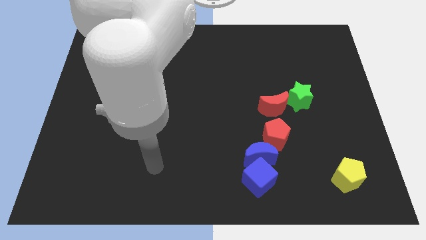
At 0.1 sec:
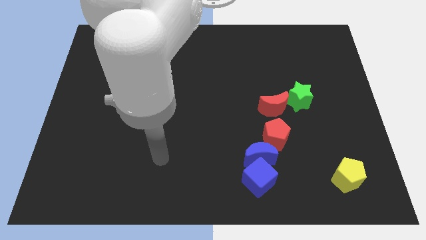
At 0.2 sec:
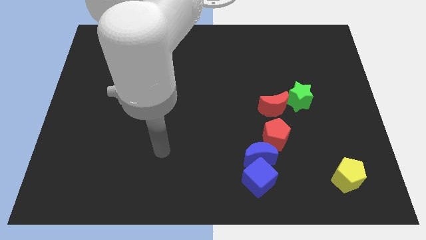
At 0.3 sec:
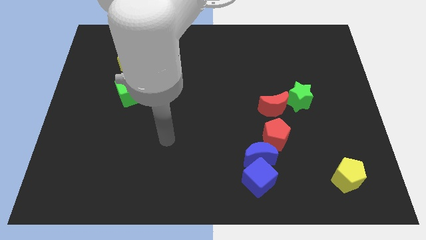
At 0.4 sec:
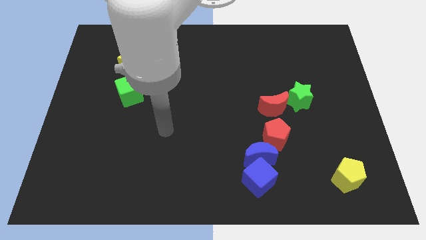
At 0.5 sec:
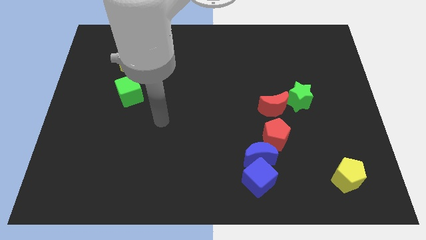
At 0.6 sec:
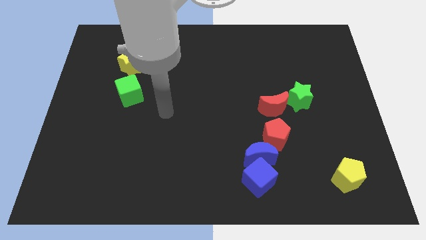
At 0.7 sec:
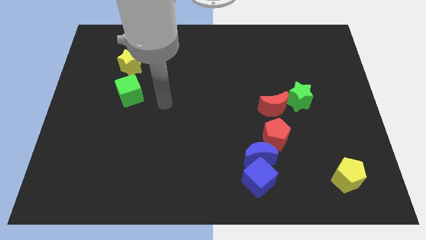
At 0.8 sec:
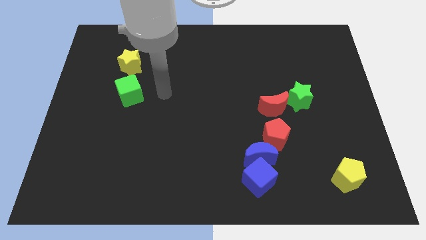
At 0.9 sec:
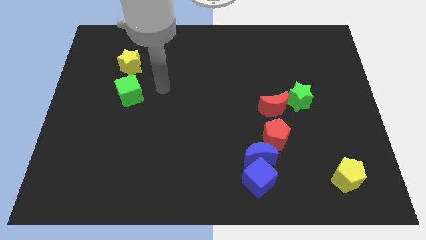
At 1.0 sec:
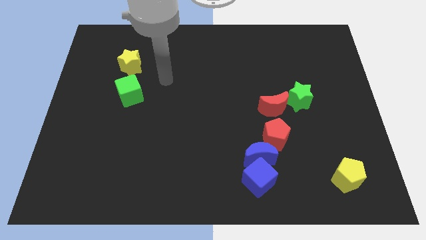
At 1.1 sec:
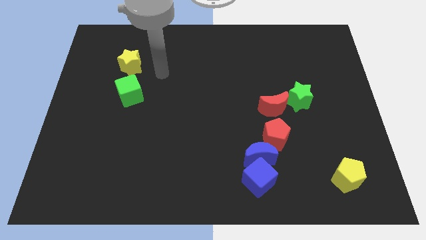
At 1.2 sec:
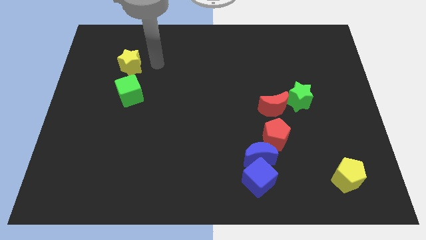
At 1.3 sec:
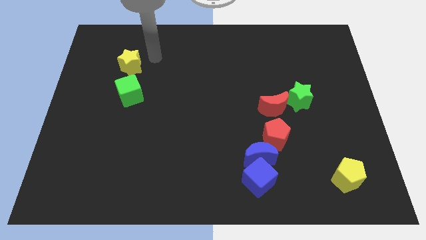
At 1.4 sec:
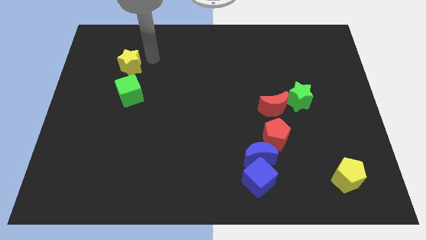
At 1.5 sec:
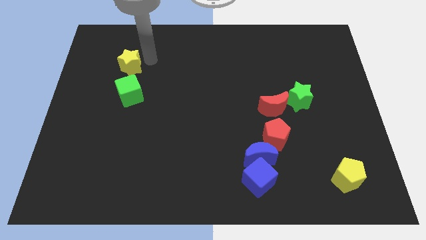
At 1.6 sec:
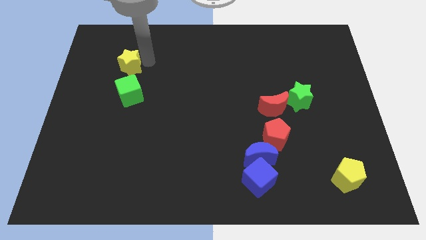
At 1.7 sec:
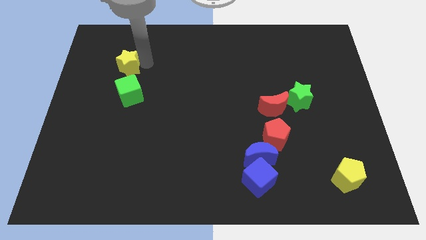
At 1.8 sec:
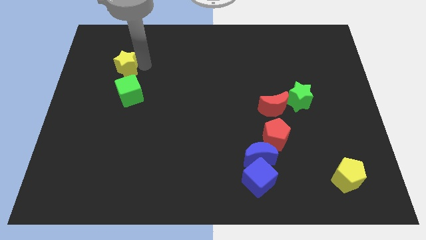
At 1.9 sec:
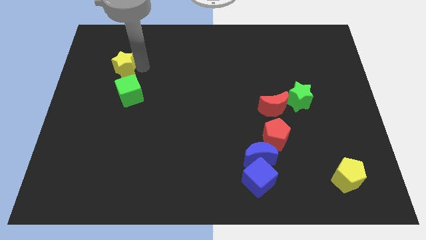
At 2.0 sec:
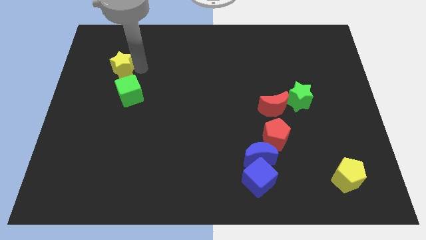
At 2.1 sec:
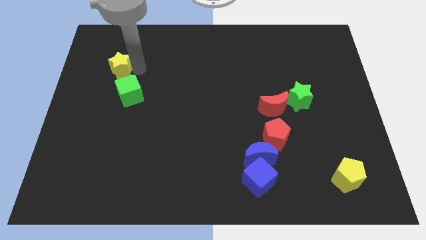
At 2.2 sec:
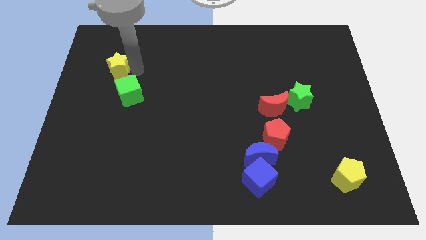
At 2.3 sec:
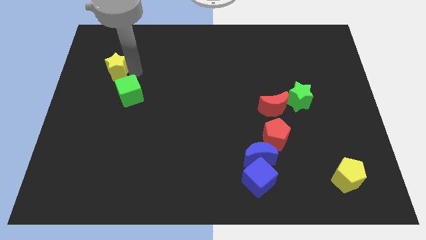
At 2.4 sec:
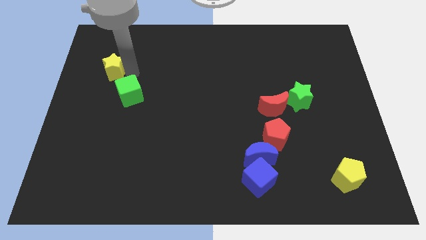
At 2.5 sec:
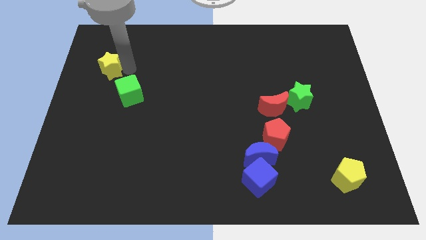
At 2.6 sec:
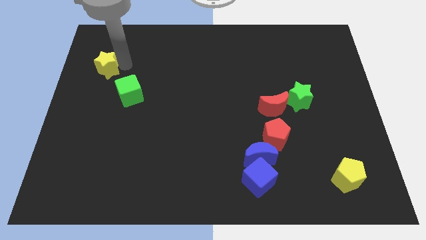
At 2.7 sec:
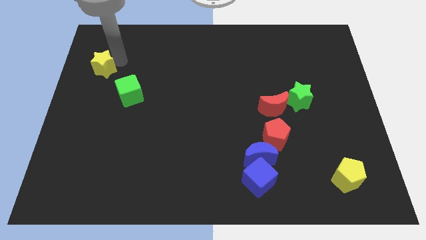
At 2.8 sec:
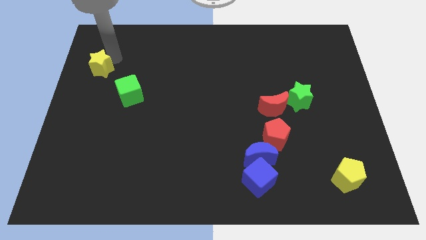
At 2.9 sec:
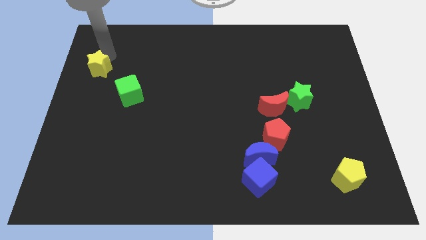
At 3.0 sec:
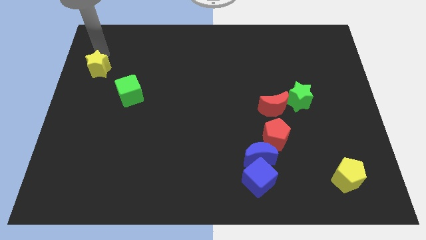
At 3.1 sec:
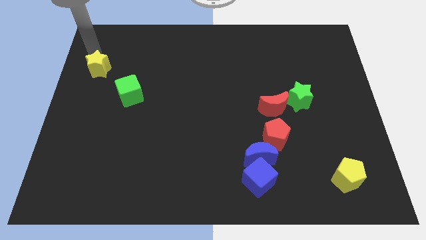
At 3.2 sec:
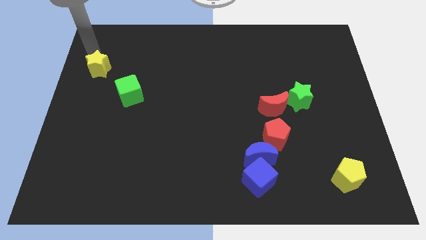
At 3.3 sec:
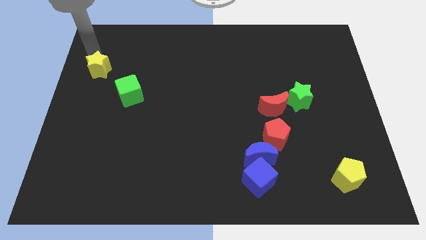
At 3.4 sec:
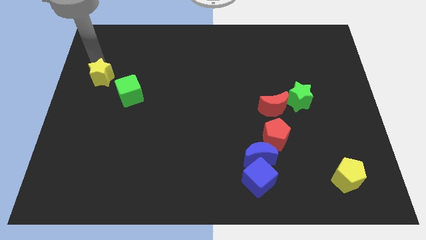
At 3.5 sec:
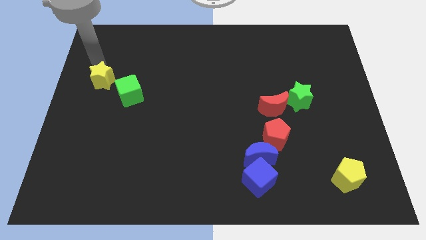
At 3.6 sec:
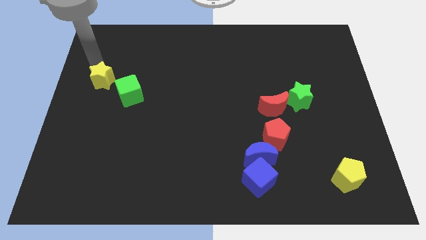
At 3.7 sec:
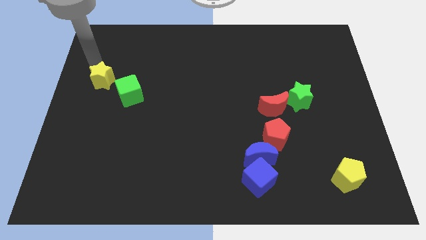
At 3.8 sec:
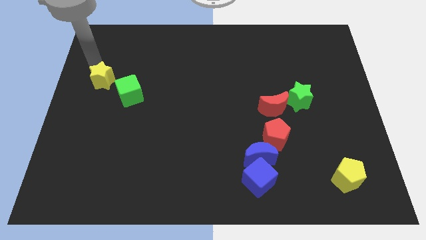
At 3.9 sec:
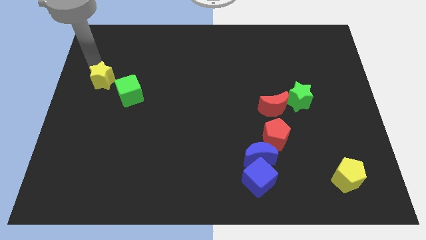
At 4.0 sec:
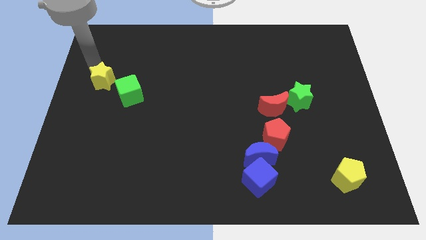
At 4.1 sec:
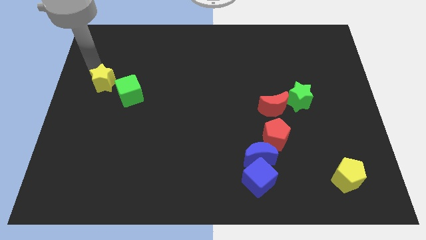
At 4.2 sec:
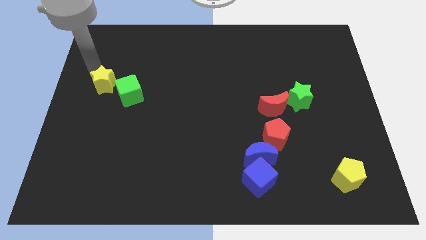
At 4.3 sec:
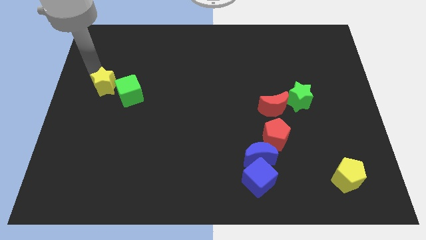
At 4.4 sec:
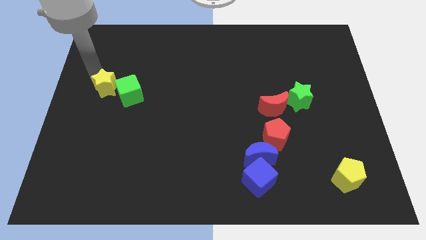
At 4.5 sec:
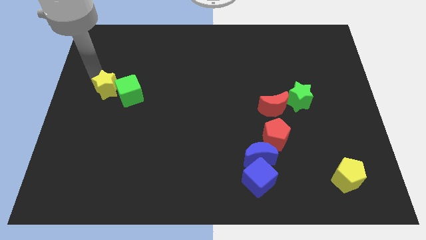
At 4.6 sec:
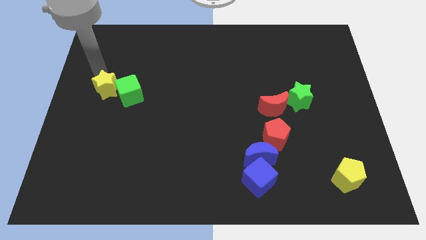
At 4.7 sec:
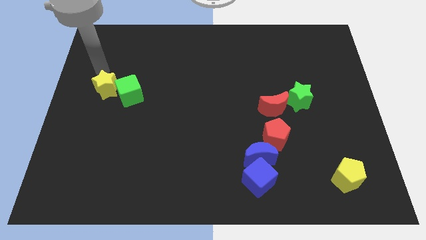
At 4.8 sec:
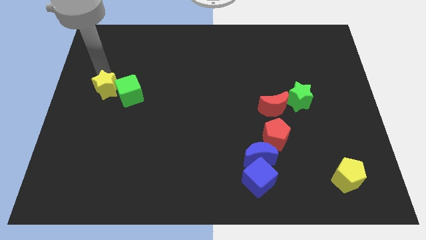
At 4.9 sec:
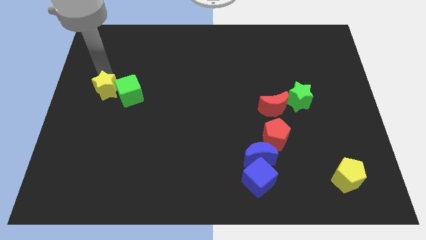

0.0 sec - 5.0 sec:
move the yellow star a bit down

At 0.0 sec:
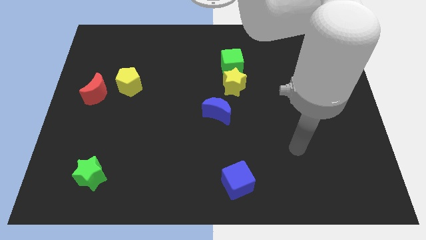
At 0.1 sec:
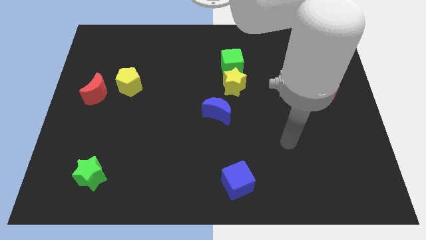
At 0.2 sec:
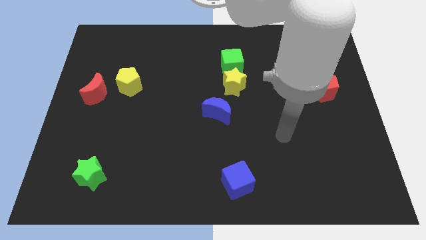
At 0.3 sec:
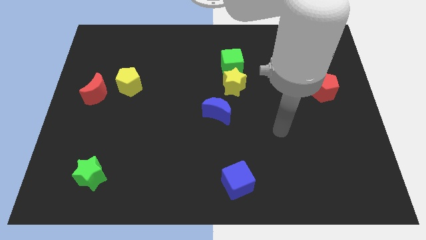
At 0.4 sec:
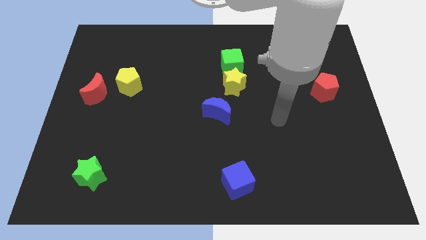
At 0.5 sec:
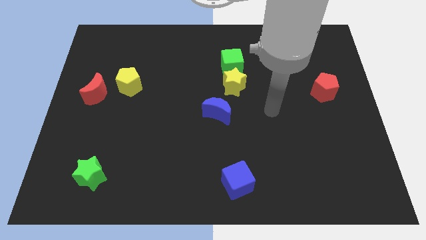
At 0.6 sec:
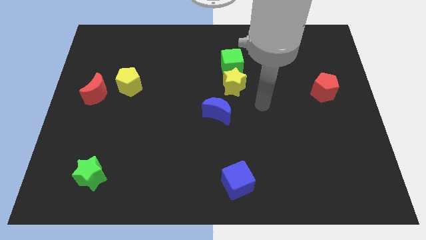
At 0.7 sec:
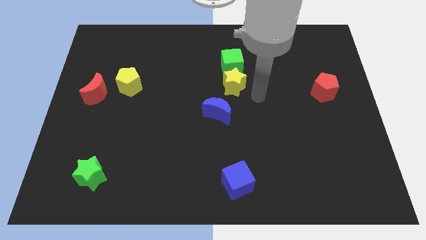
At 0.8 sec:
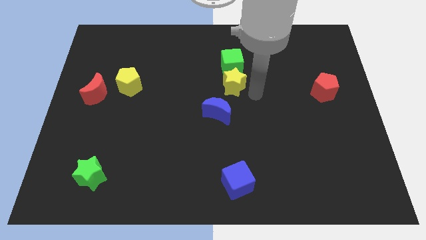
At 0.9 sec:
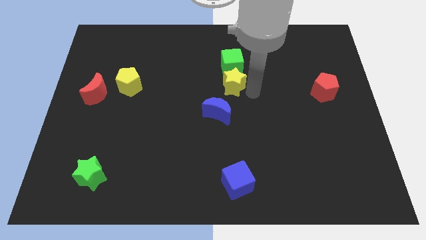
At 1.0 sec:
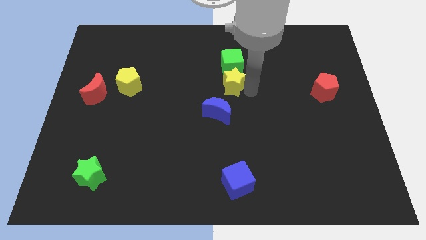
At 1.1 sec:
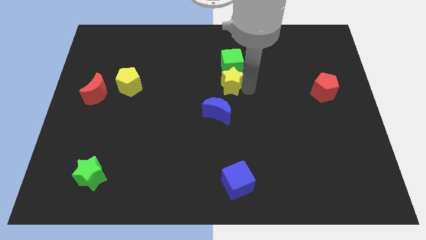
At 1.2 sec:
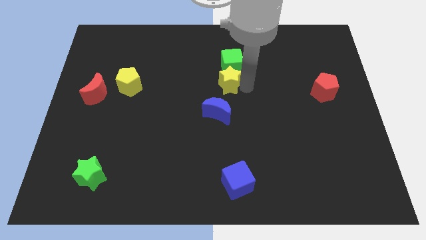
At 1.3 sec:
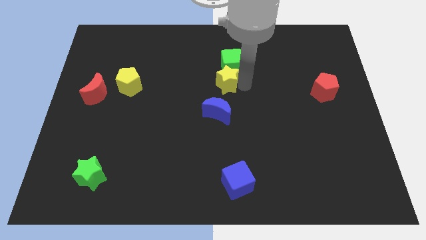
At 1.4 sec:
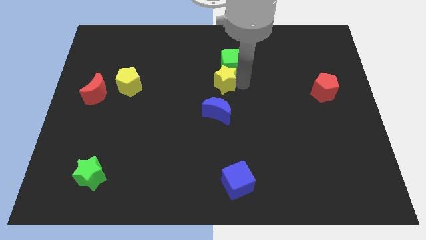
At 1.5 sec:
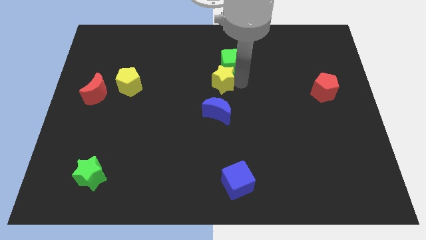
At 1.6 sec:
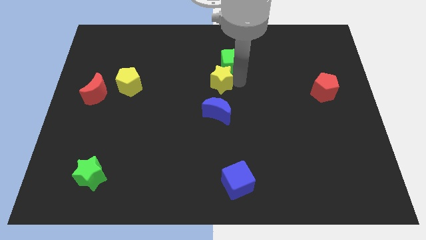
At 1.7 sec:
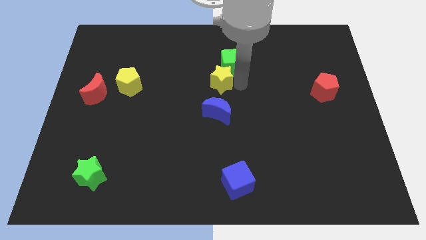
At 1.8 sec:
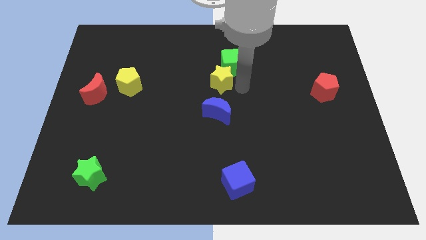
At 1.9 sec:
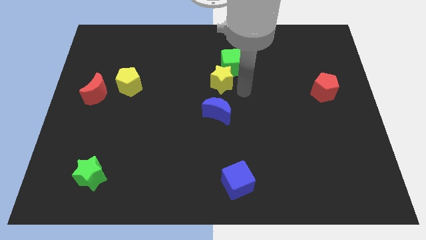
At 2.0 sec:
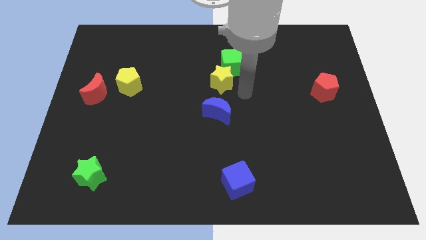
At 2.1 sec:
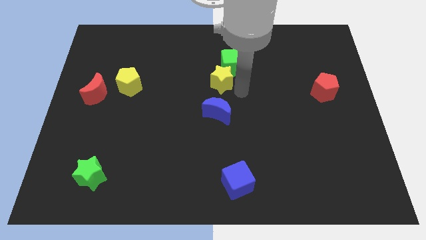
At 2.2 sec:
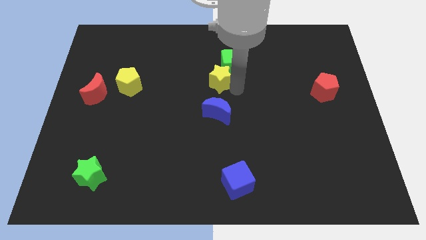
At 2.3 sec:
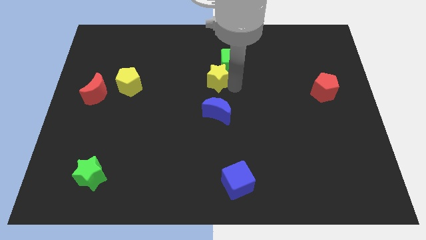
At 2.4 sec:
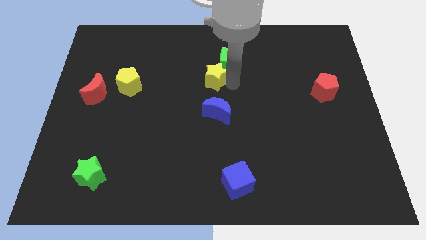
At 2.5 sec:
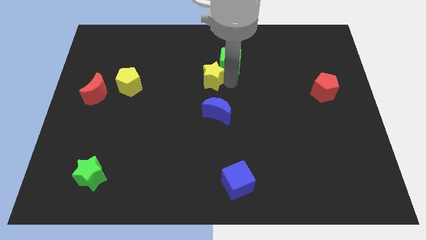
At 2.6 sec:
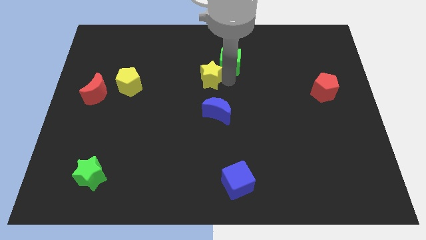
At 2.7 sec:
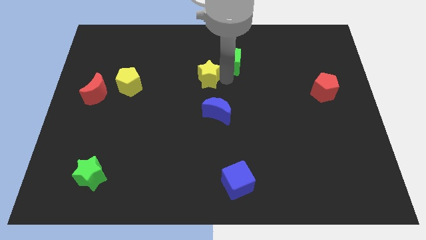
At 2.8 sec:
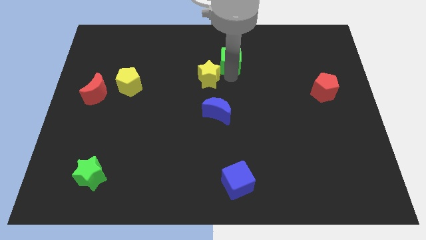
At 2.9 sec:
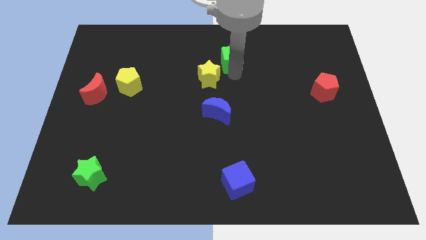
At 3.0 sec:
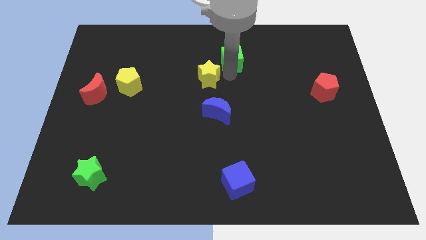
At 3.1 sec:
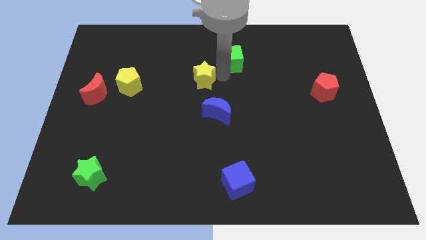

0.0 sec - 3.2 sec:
slide the yellow star to the left slightly
